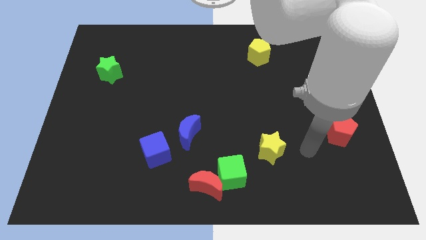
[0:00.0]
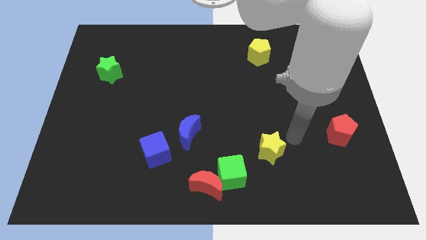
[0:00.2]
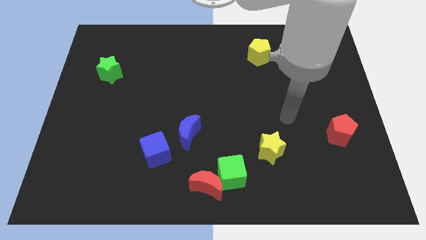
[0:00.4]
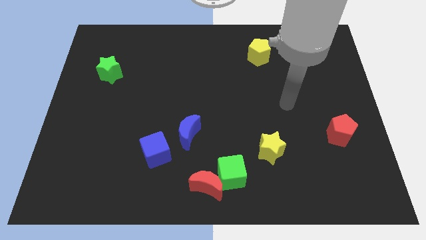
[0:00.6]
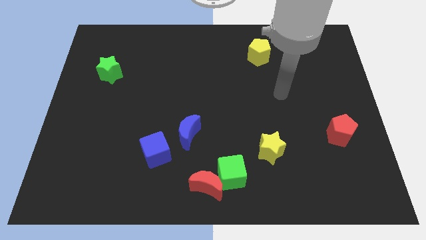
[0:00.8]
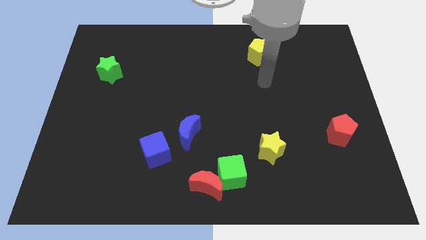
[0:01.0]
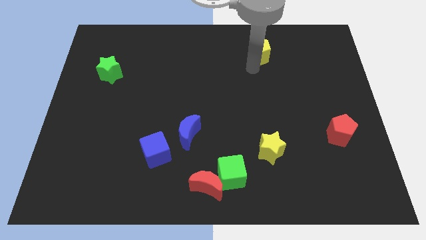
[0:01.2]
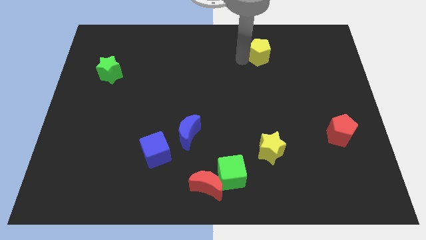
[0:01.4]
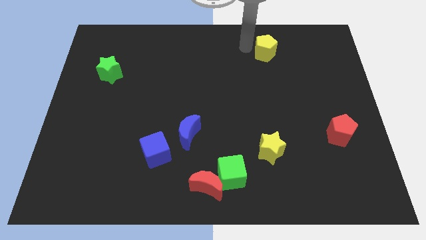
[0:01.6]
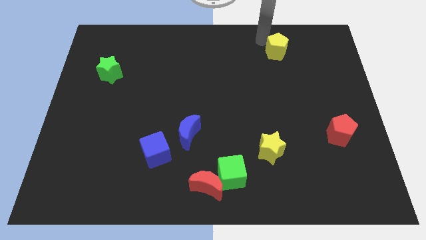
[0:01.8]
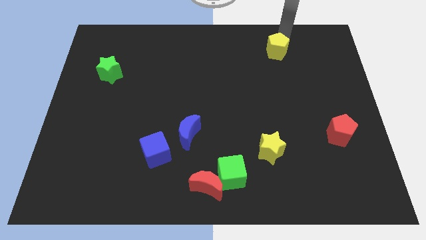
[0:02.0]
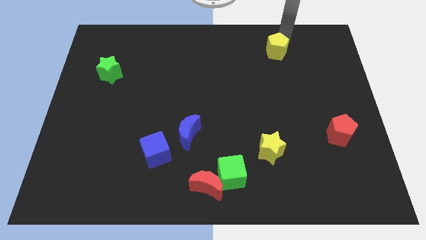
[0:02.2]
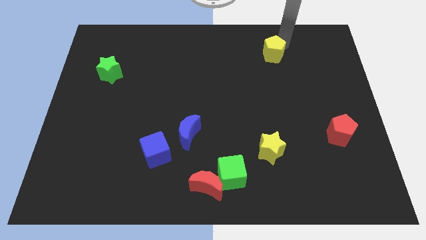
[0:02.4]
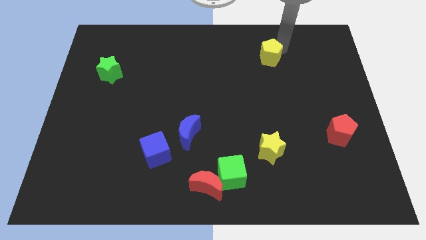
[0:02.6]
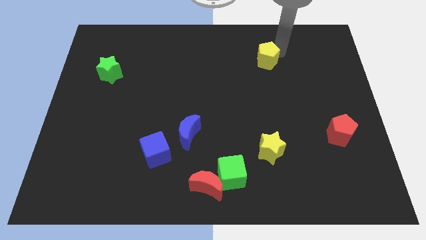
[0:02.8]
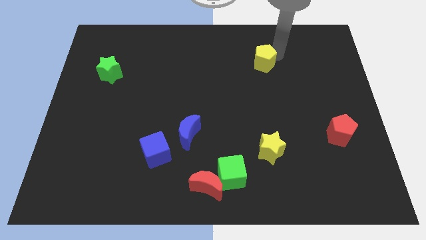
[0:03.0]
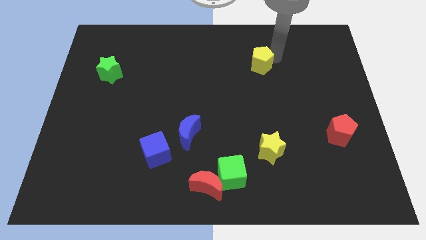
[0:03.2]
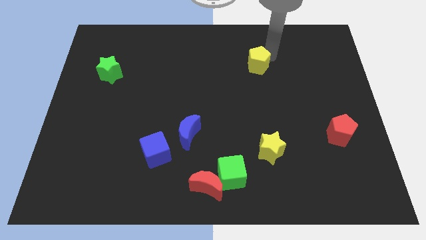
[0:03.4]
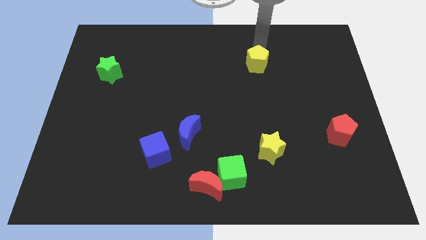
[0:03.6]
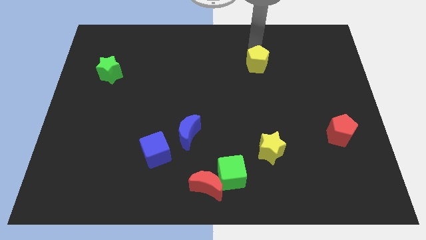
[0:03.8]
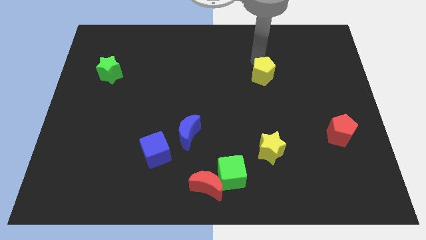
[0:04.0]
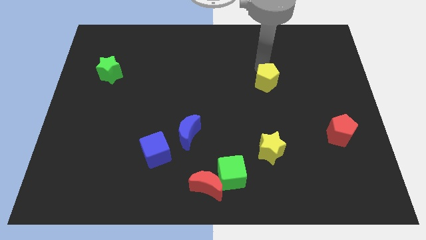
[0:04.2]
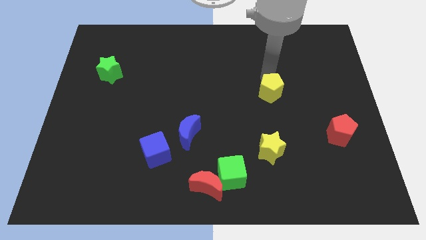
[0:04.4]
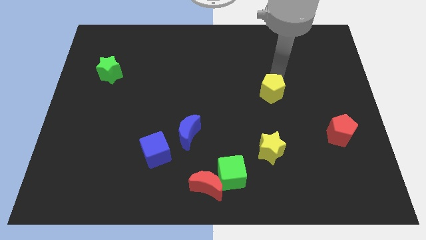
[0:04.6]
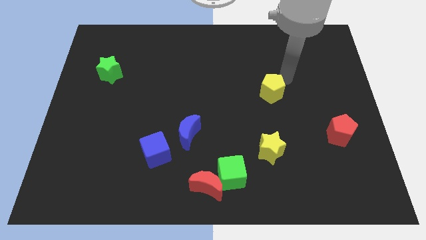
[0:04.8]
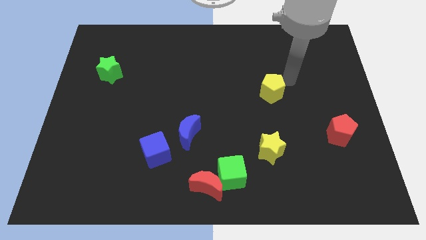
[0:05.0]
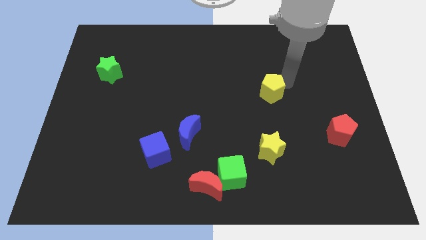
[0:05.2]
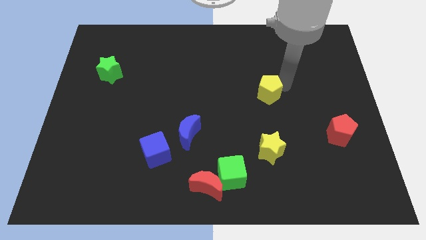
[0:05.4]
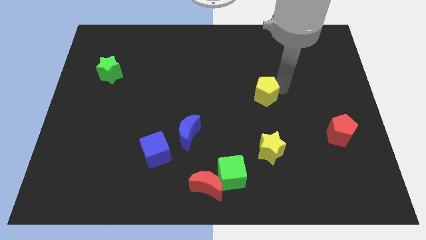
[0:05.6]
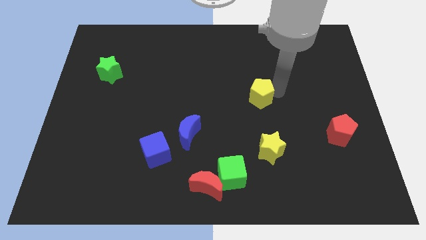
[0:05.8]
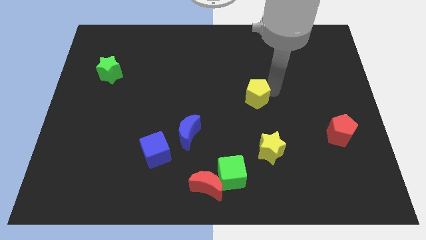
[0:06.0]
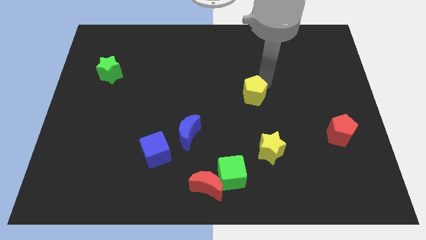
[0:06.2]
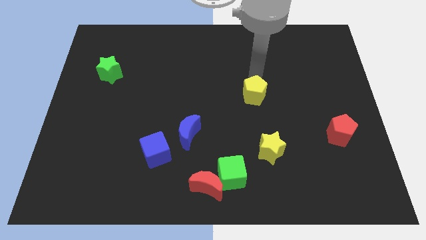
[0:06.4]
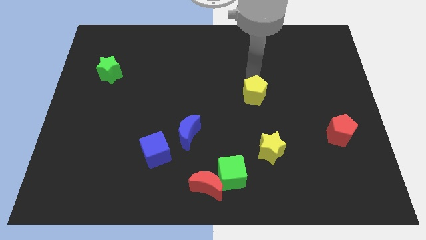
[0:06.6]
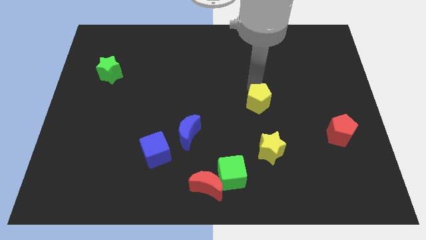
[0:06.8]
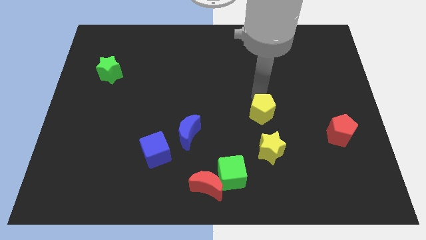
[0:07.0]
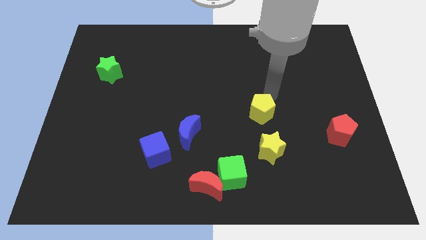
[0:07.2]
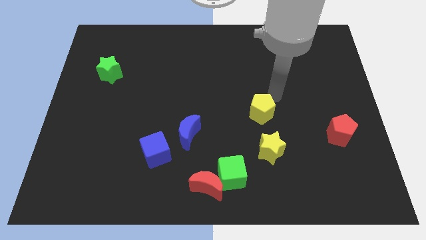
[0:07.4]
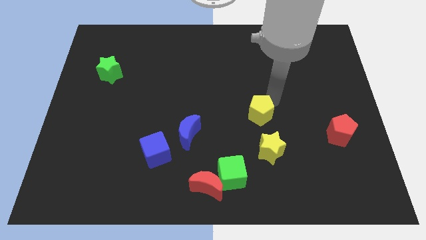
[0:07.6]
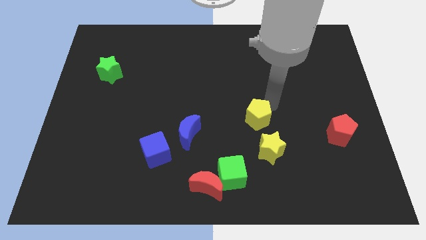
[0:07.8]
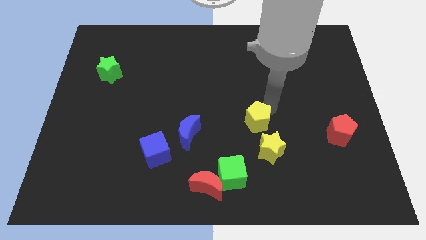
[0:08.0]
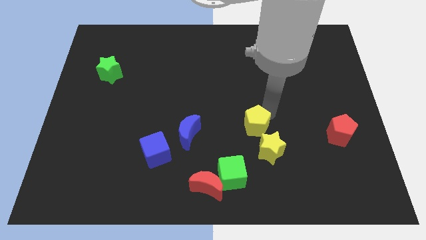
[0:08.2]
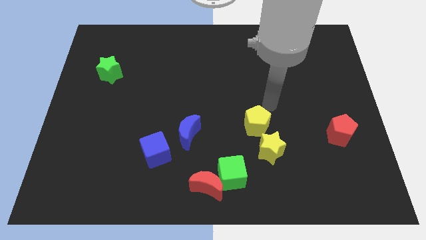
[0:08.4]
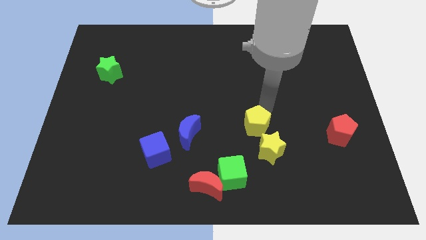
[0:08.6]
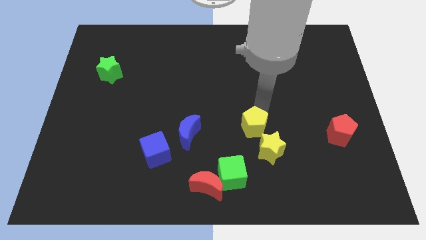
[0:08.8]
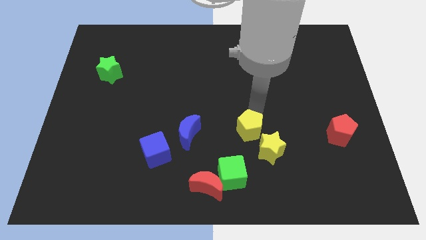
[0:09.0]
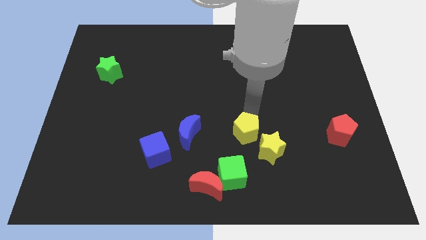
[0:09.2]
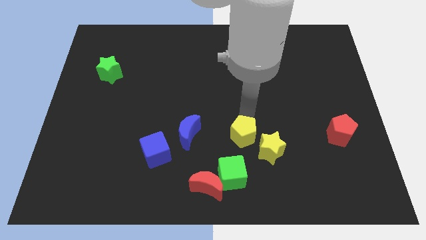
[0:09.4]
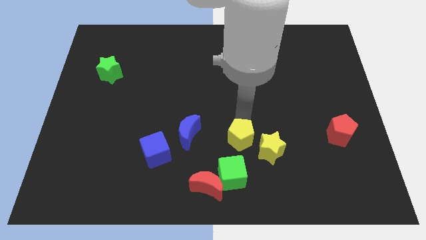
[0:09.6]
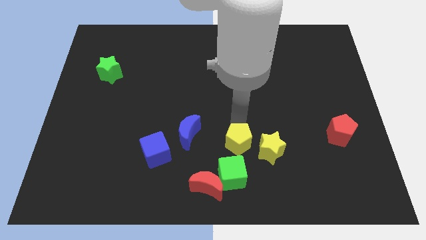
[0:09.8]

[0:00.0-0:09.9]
push the yellow pentagon diagonally up and to the right of the red moon

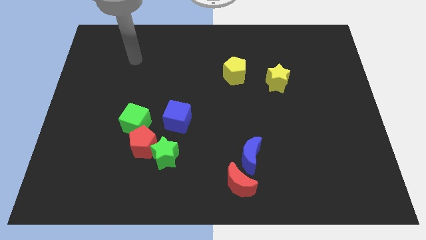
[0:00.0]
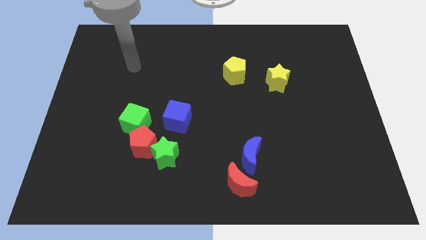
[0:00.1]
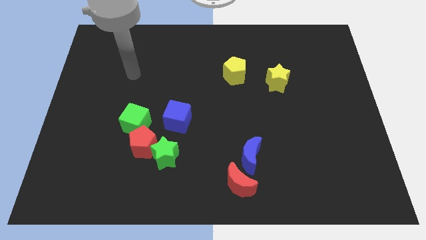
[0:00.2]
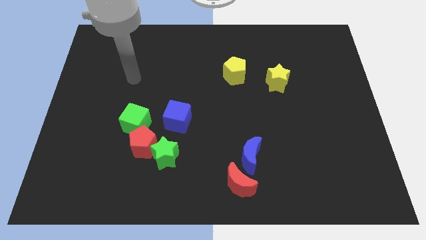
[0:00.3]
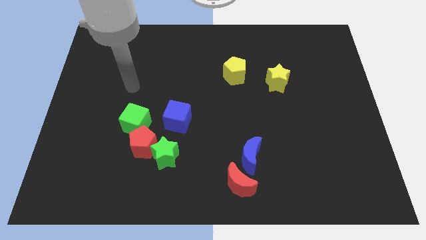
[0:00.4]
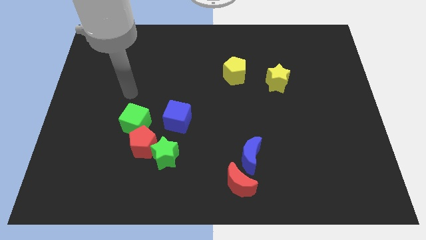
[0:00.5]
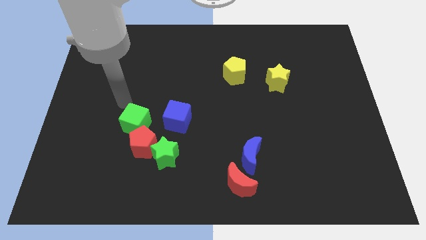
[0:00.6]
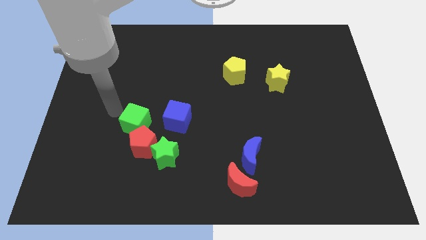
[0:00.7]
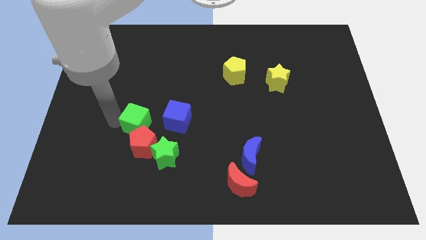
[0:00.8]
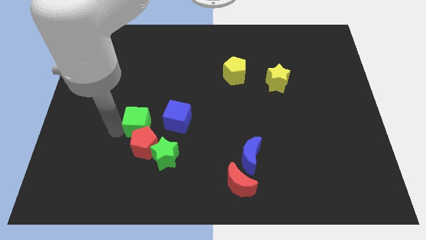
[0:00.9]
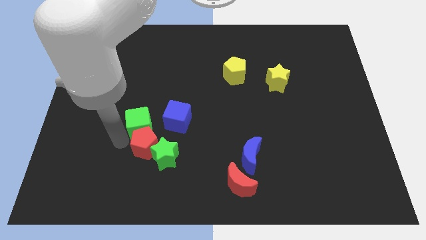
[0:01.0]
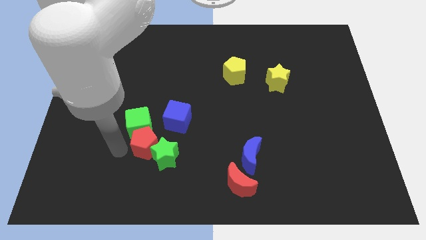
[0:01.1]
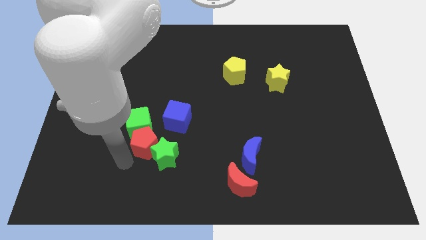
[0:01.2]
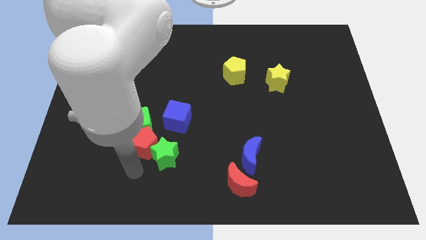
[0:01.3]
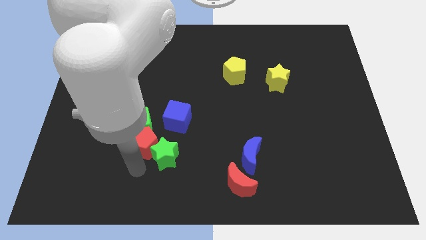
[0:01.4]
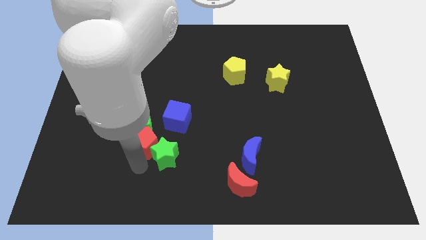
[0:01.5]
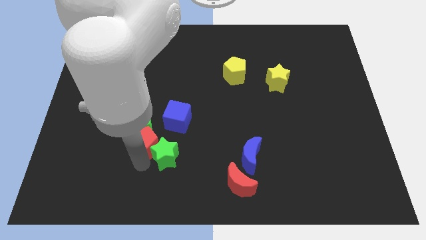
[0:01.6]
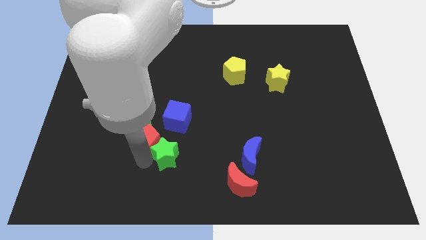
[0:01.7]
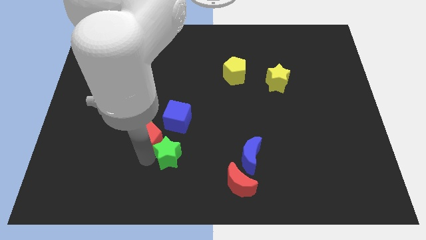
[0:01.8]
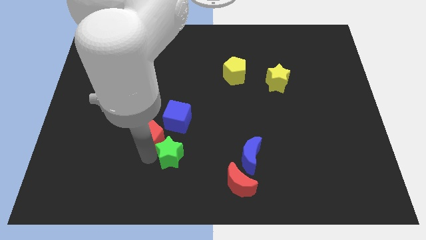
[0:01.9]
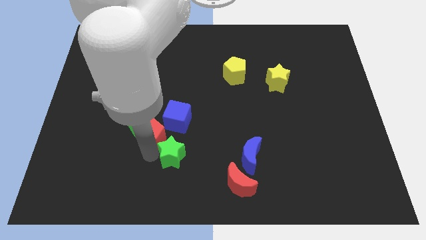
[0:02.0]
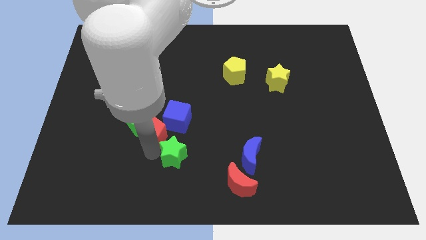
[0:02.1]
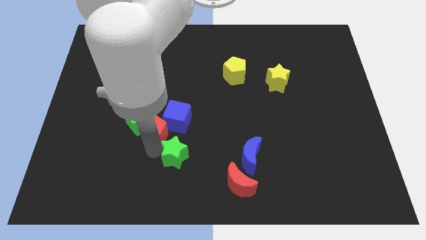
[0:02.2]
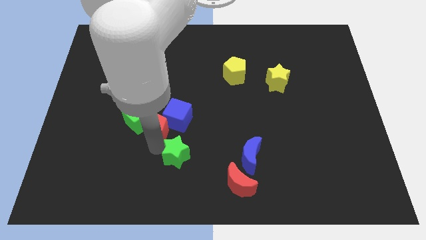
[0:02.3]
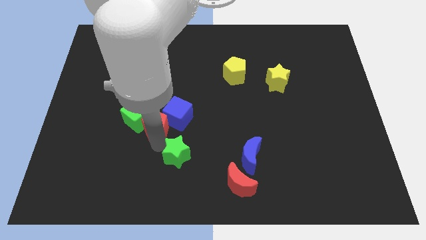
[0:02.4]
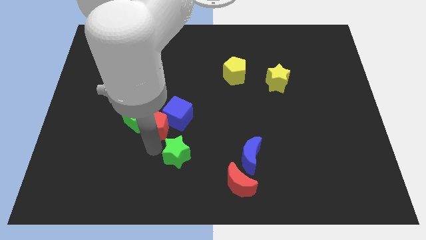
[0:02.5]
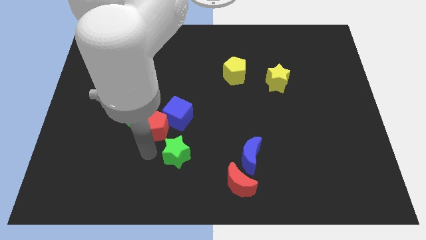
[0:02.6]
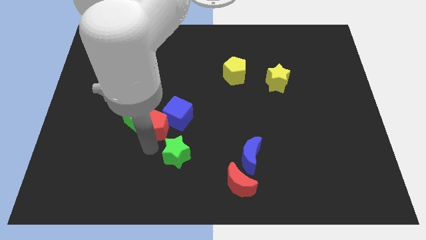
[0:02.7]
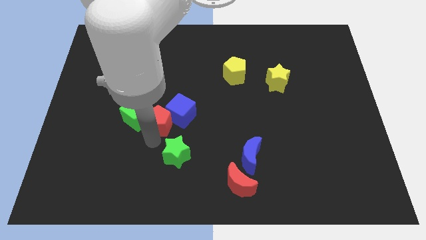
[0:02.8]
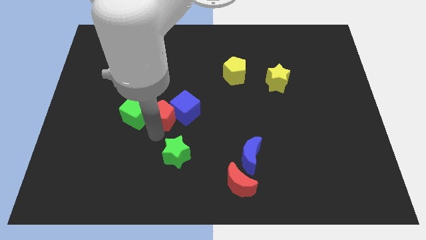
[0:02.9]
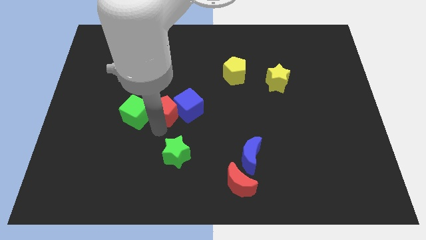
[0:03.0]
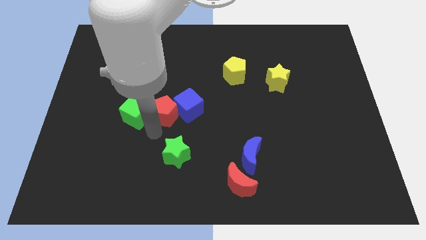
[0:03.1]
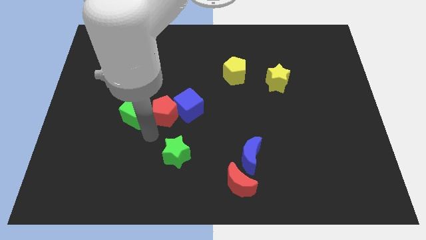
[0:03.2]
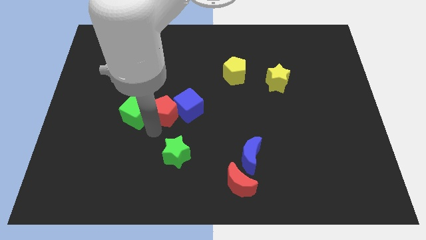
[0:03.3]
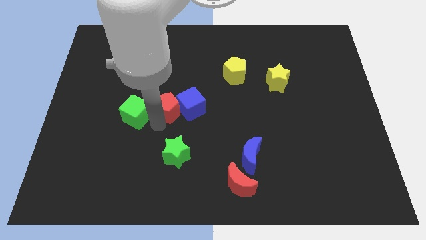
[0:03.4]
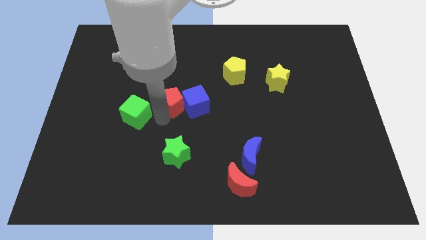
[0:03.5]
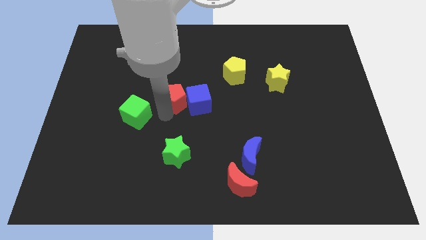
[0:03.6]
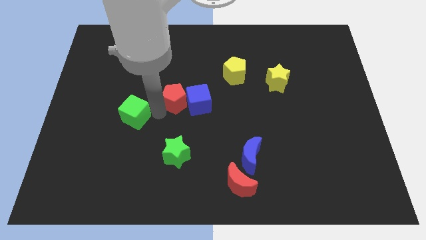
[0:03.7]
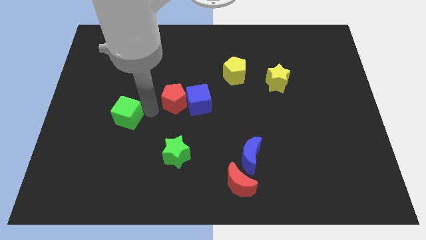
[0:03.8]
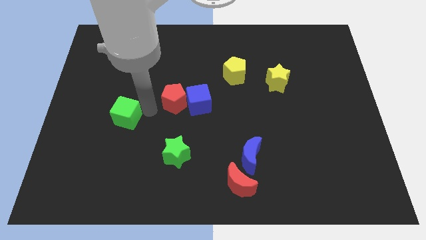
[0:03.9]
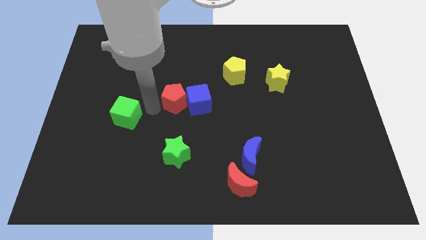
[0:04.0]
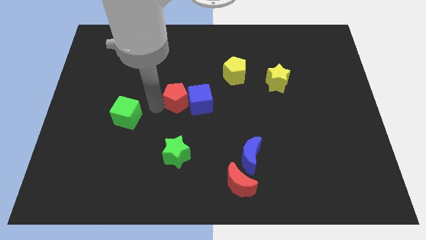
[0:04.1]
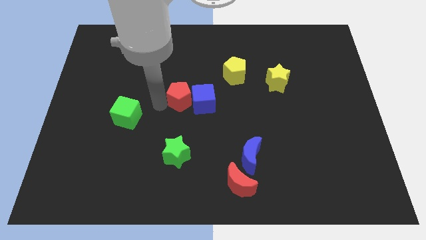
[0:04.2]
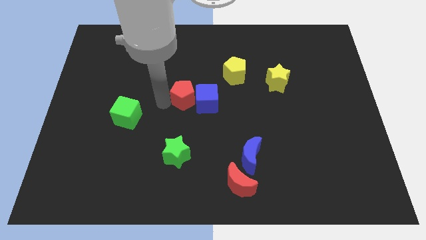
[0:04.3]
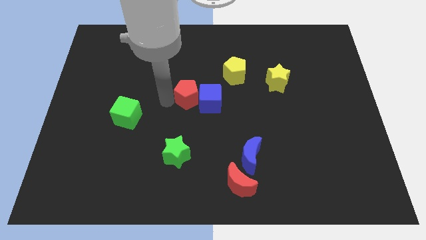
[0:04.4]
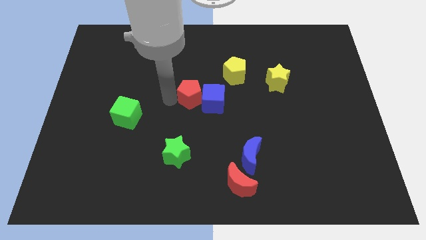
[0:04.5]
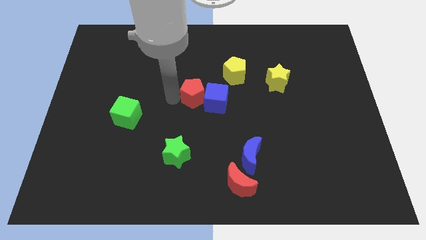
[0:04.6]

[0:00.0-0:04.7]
slide the red pentagon to the bottom left of the yellow pentagon
